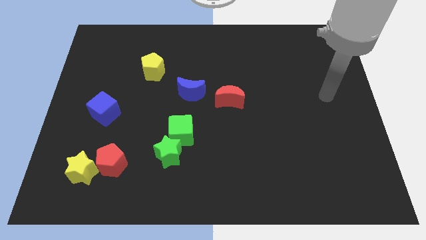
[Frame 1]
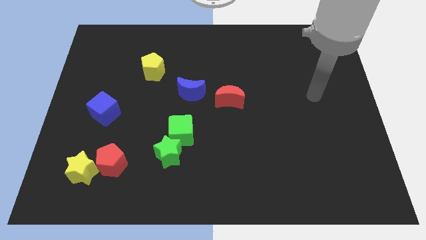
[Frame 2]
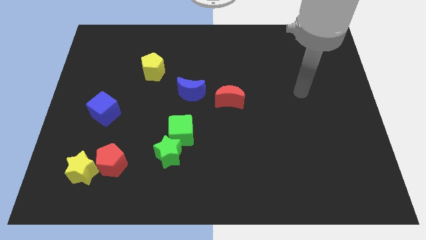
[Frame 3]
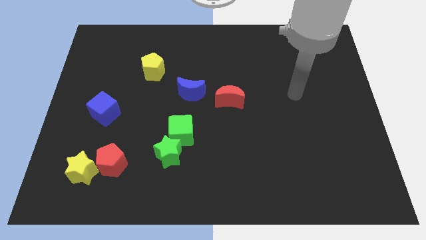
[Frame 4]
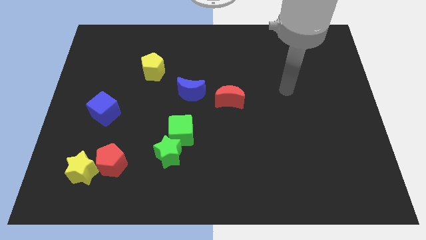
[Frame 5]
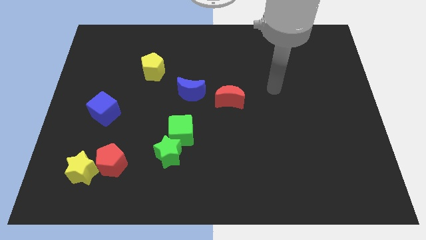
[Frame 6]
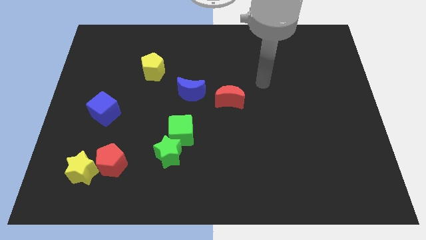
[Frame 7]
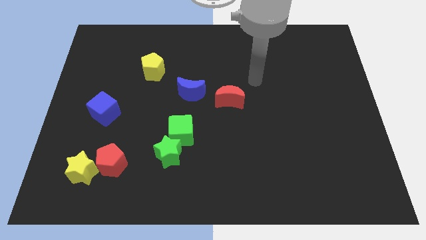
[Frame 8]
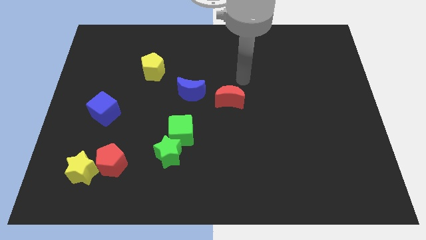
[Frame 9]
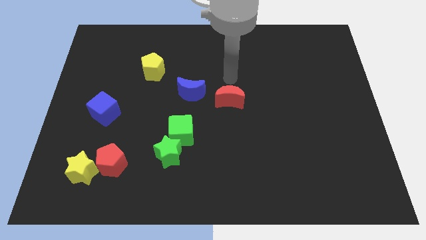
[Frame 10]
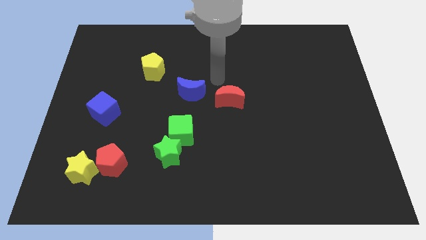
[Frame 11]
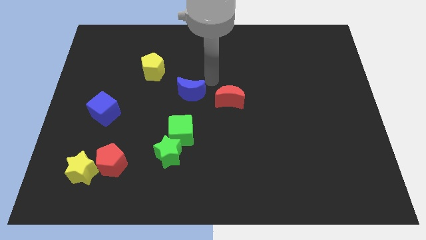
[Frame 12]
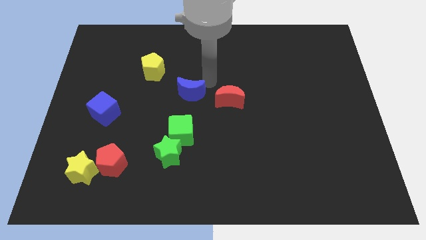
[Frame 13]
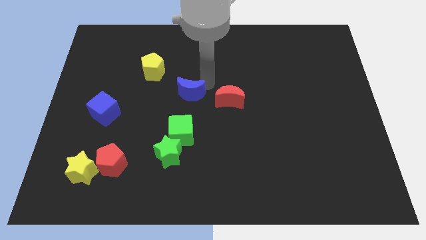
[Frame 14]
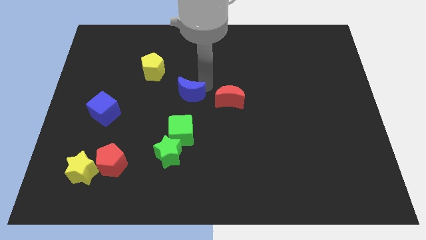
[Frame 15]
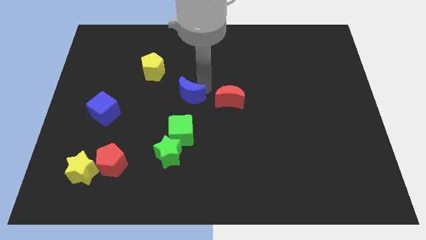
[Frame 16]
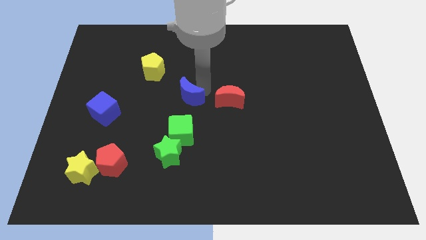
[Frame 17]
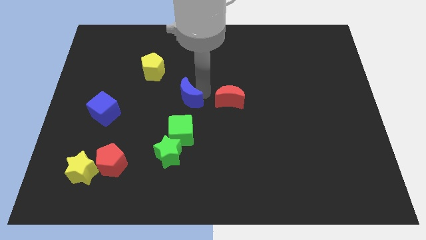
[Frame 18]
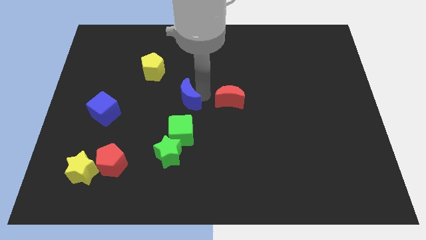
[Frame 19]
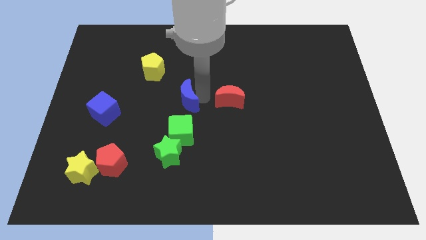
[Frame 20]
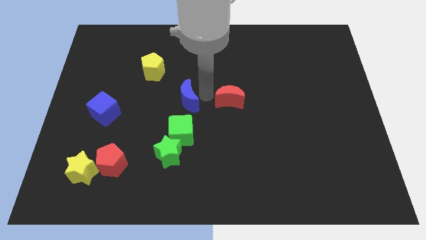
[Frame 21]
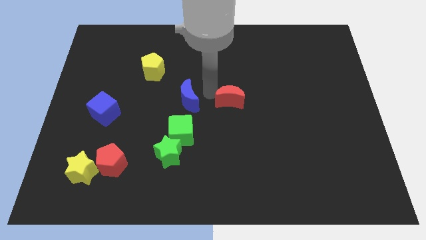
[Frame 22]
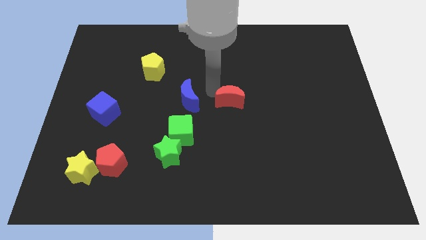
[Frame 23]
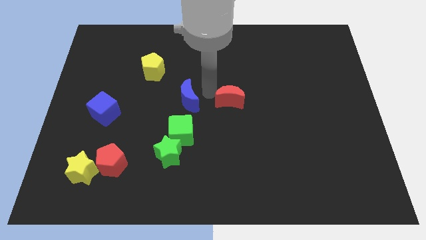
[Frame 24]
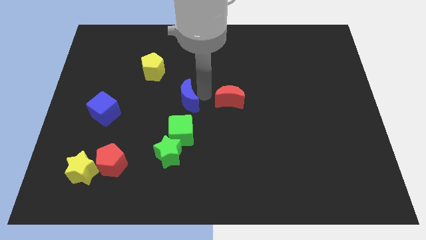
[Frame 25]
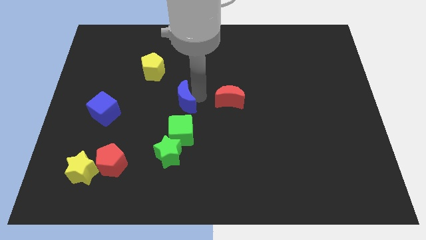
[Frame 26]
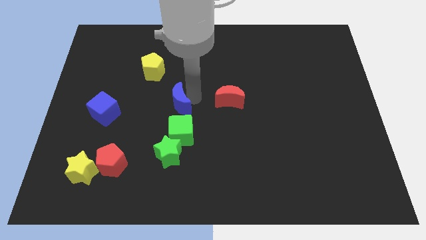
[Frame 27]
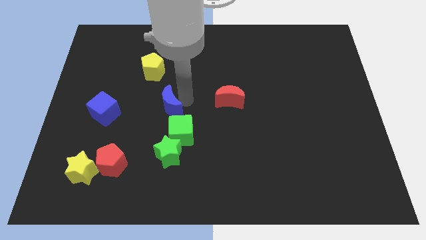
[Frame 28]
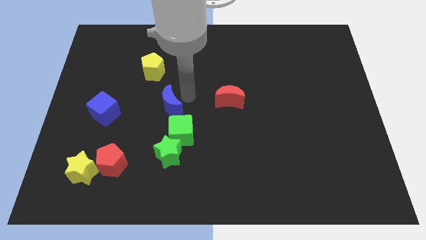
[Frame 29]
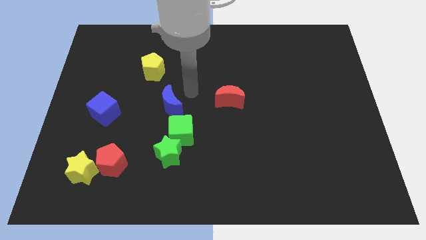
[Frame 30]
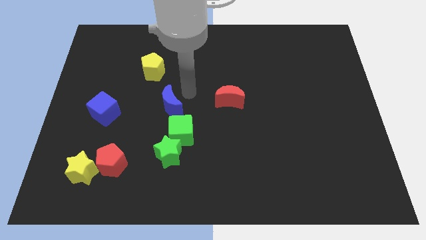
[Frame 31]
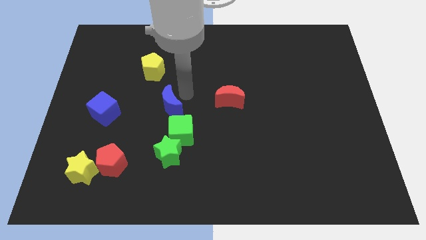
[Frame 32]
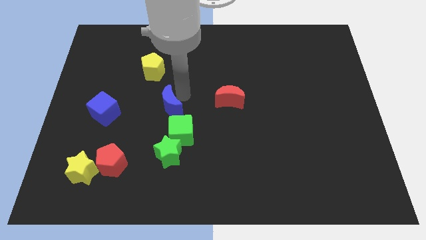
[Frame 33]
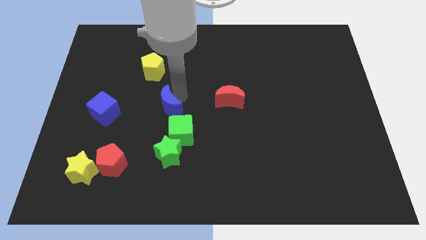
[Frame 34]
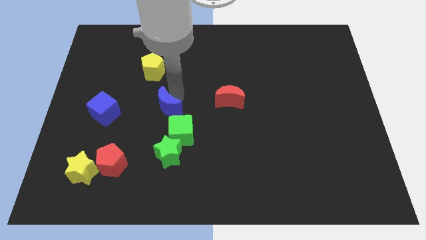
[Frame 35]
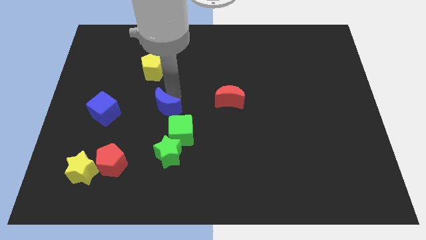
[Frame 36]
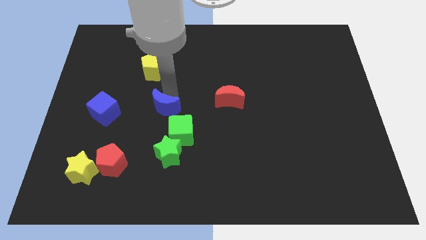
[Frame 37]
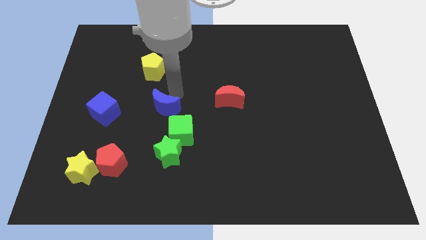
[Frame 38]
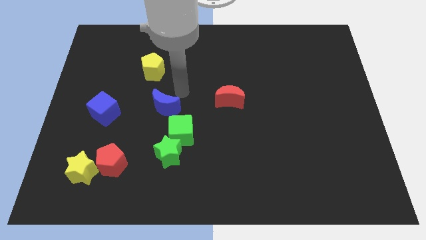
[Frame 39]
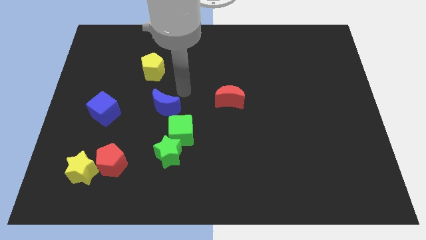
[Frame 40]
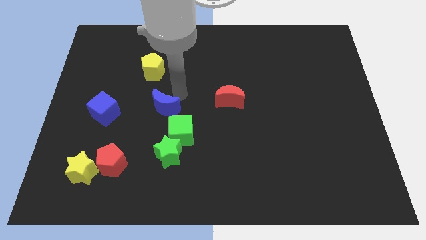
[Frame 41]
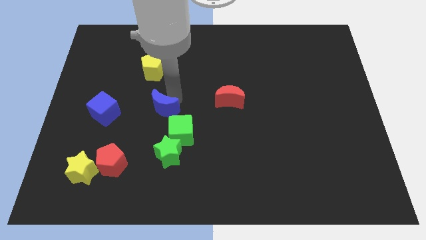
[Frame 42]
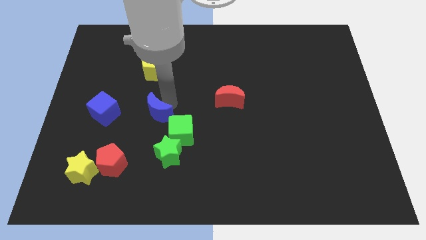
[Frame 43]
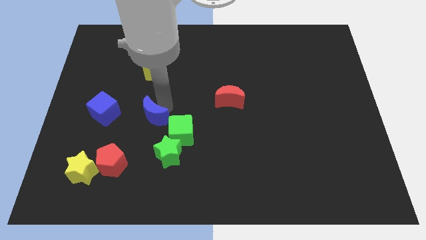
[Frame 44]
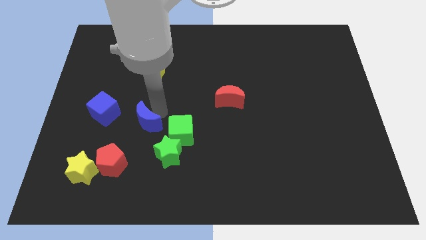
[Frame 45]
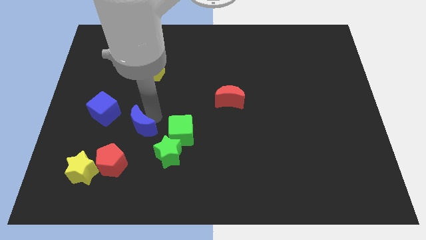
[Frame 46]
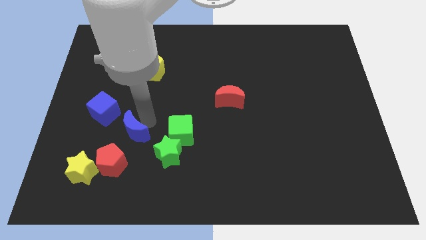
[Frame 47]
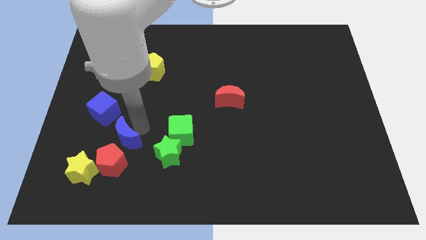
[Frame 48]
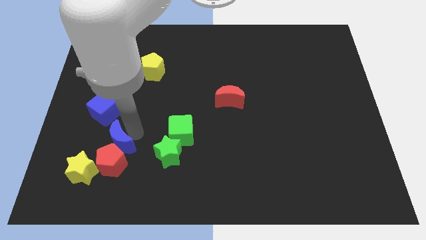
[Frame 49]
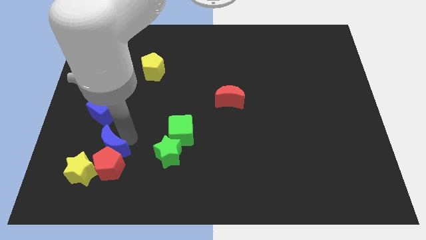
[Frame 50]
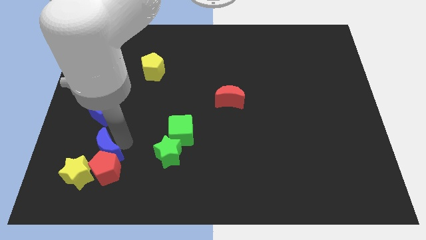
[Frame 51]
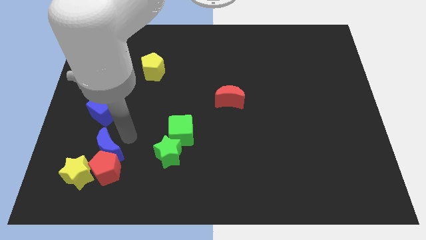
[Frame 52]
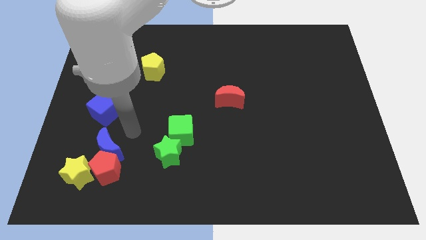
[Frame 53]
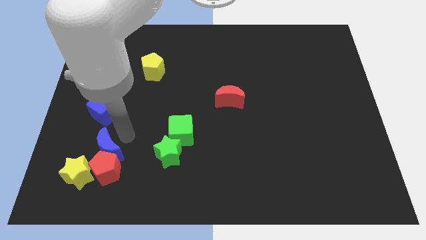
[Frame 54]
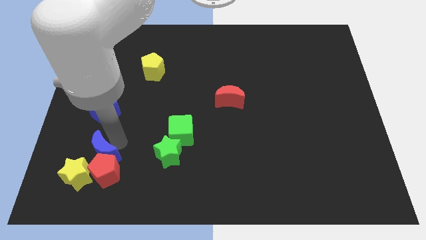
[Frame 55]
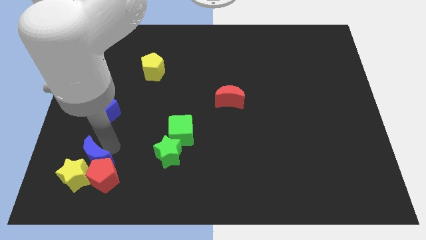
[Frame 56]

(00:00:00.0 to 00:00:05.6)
put the blue moon towards the yellow star
